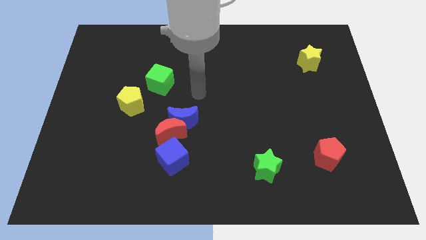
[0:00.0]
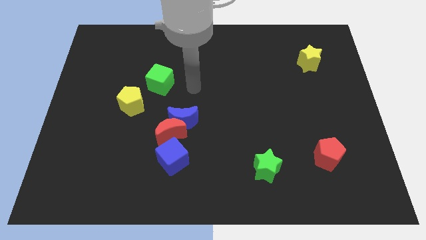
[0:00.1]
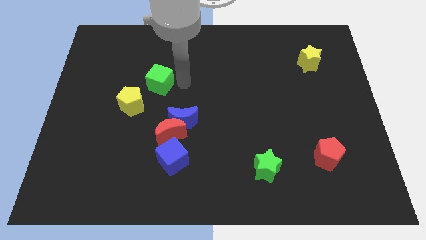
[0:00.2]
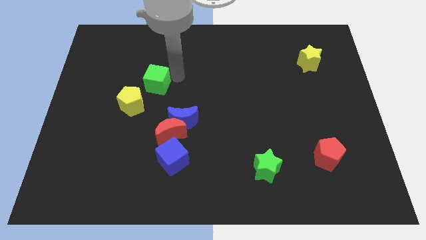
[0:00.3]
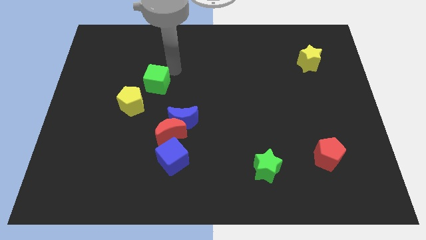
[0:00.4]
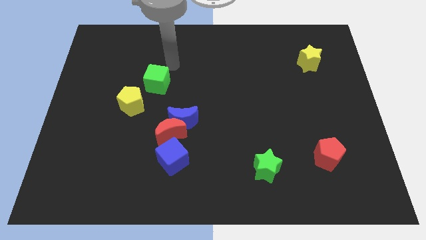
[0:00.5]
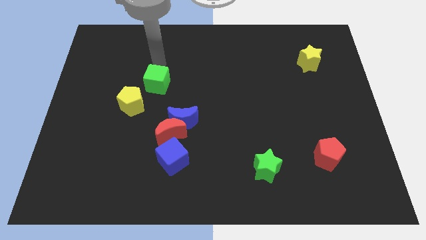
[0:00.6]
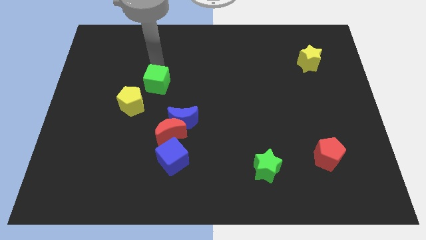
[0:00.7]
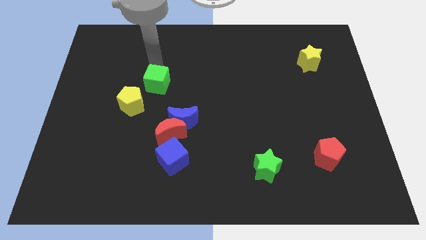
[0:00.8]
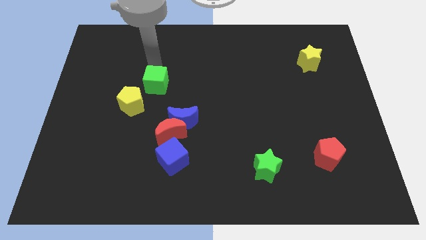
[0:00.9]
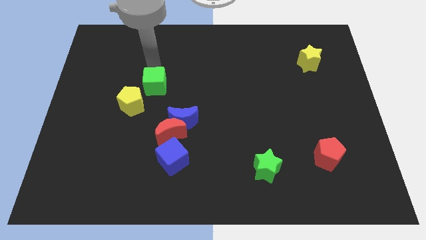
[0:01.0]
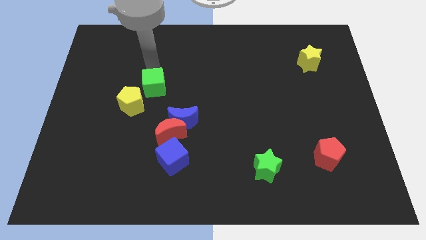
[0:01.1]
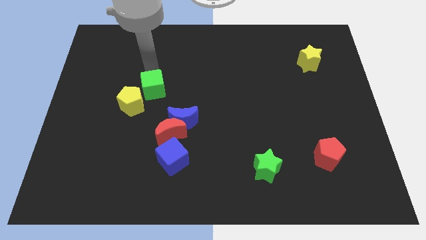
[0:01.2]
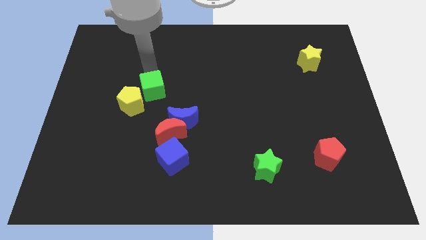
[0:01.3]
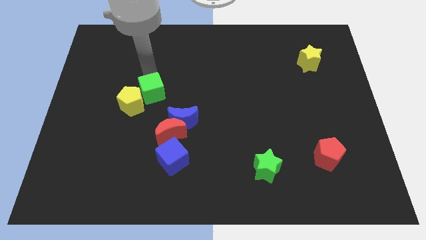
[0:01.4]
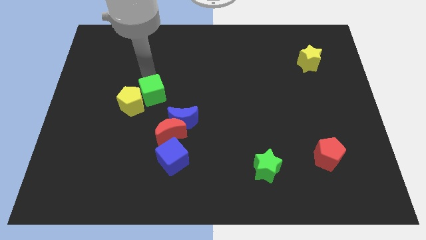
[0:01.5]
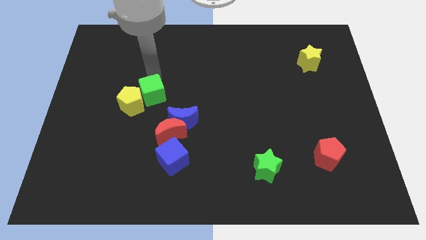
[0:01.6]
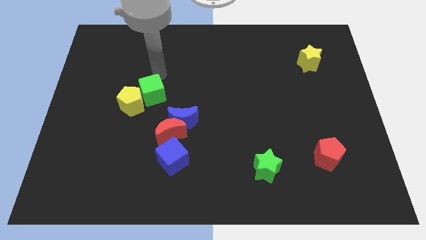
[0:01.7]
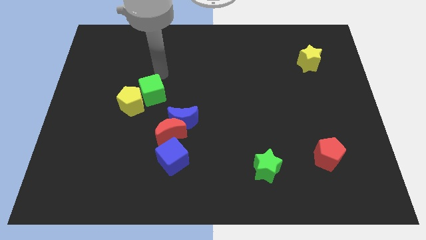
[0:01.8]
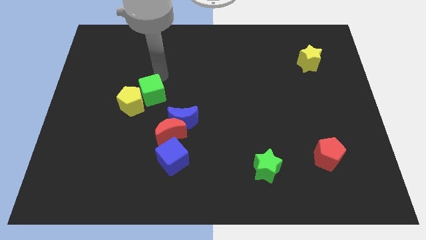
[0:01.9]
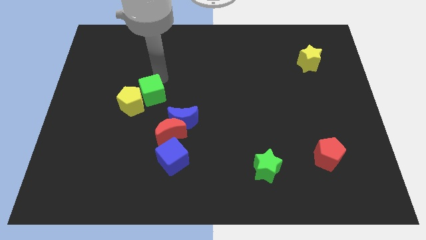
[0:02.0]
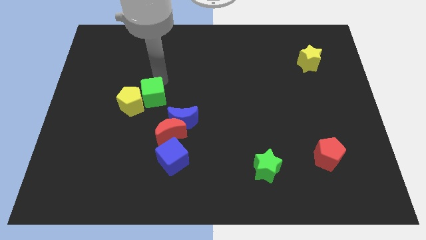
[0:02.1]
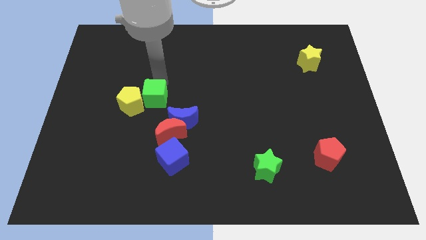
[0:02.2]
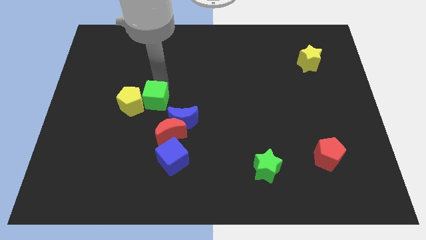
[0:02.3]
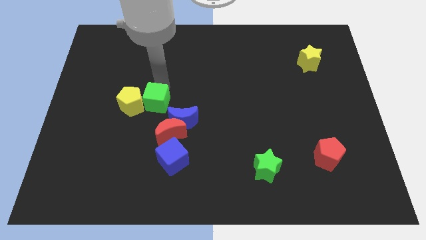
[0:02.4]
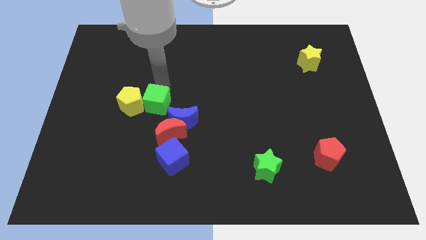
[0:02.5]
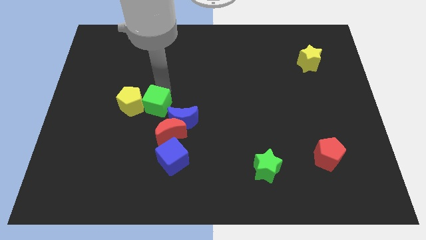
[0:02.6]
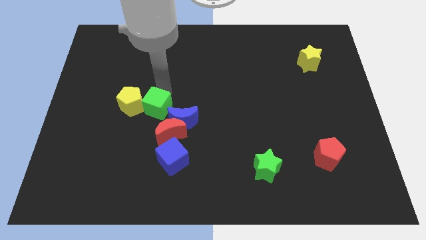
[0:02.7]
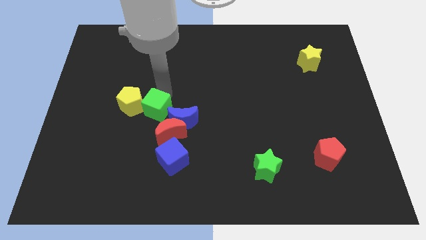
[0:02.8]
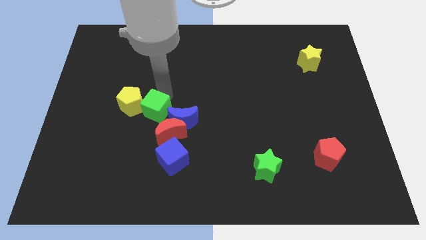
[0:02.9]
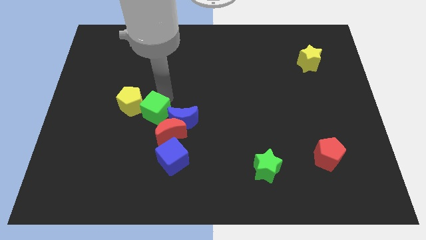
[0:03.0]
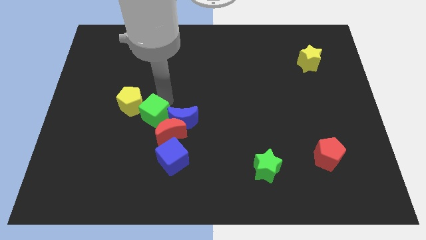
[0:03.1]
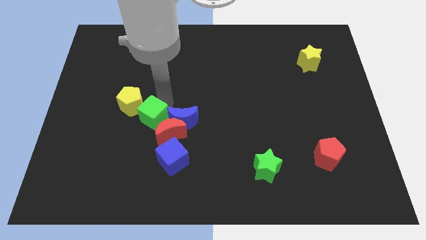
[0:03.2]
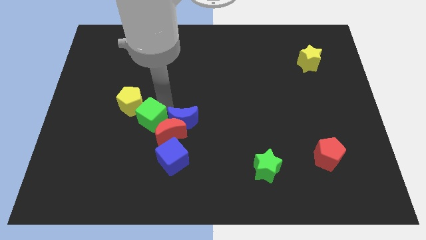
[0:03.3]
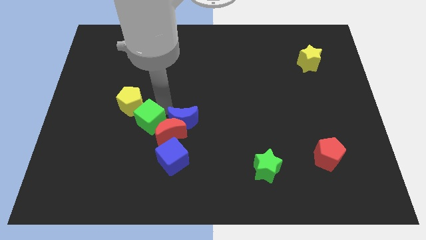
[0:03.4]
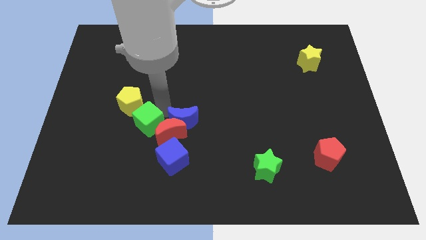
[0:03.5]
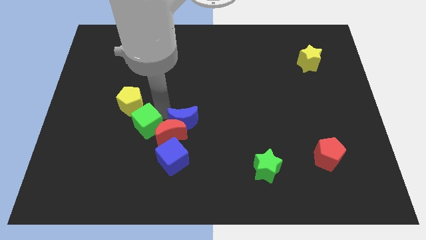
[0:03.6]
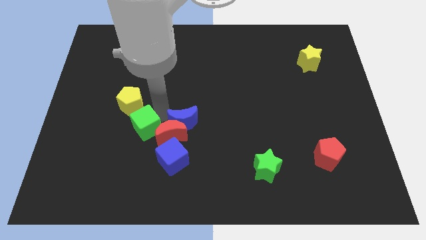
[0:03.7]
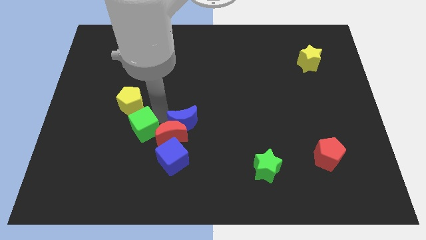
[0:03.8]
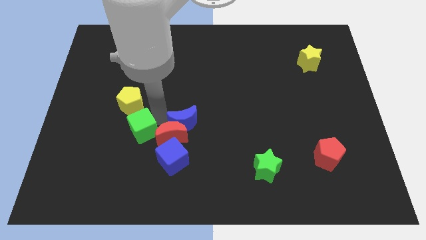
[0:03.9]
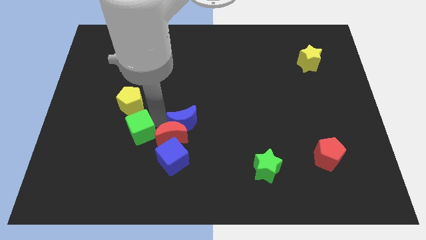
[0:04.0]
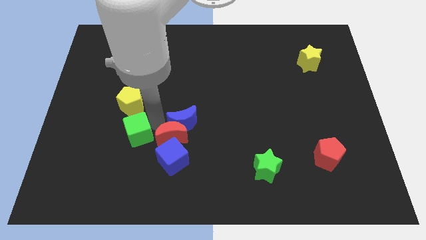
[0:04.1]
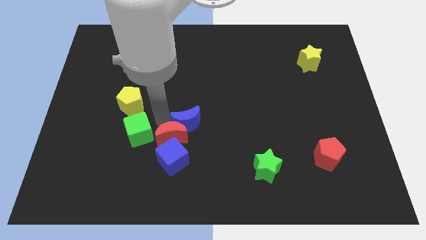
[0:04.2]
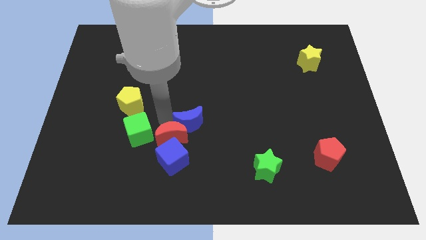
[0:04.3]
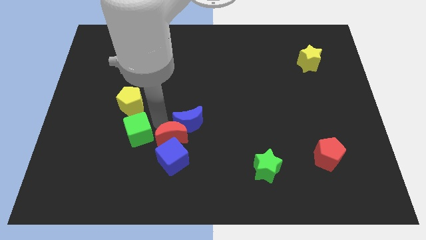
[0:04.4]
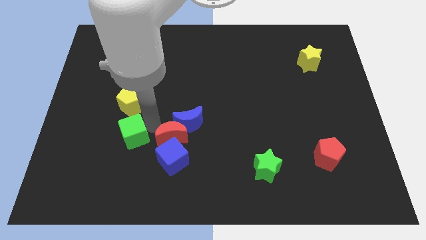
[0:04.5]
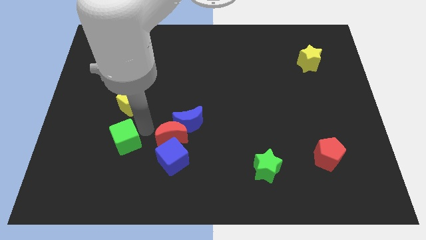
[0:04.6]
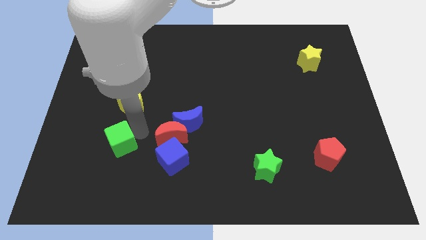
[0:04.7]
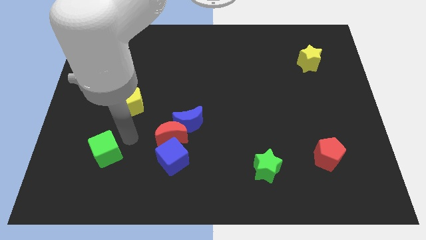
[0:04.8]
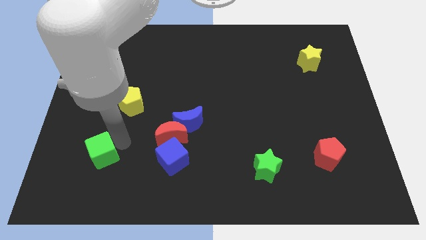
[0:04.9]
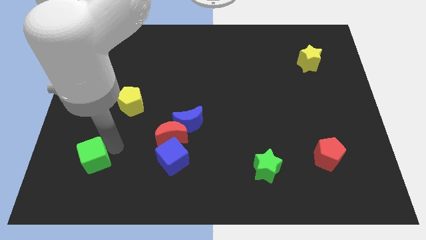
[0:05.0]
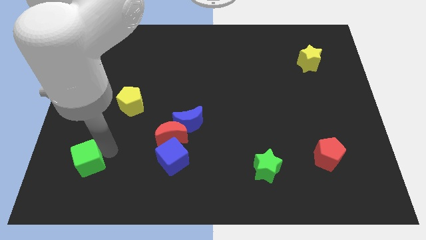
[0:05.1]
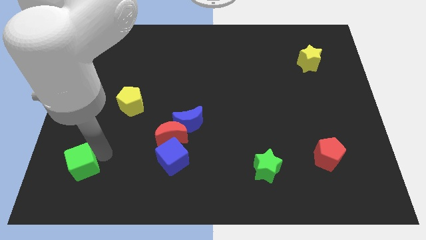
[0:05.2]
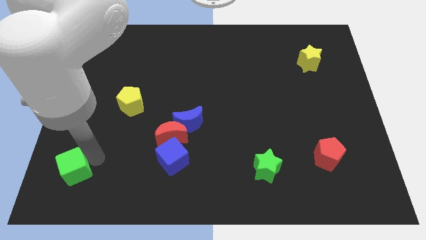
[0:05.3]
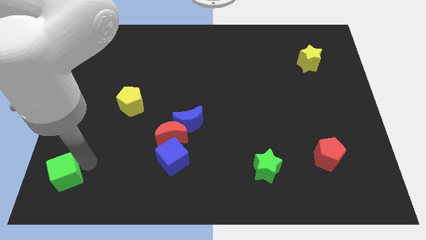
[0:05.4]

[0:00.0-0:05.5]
push the green cube to the bottom left
